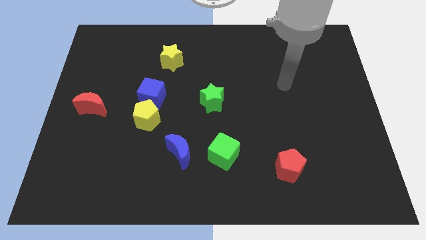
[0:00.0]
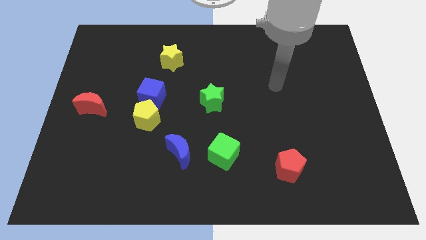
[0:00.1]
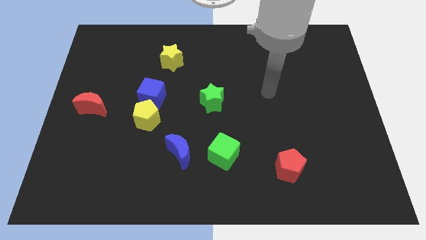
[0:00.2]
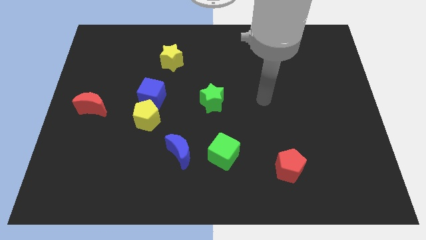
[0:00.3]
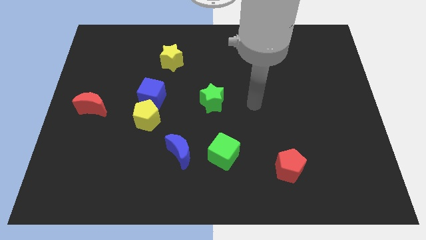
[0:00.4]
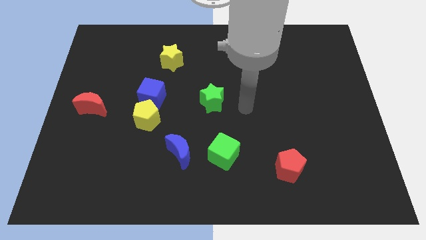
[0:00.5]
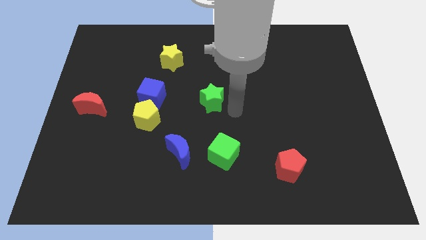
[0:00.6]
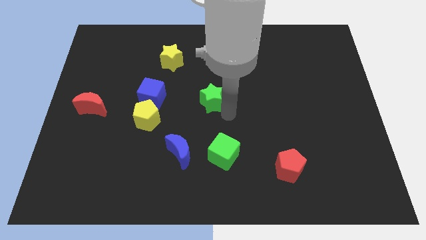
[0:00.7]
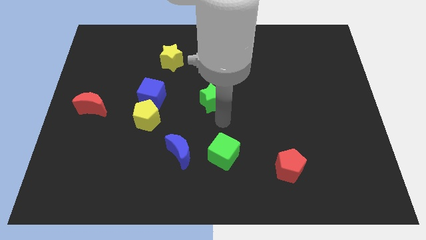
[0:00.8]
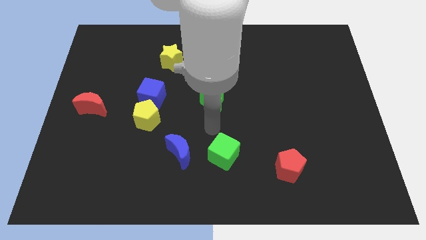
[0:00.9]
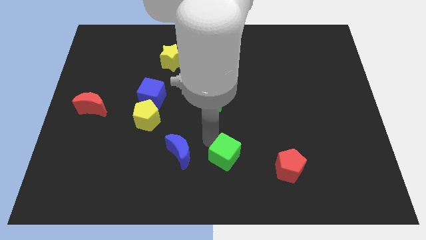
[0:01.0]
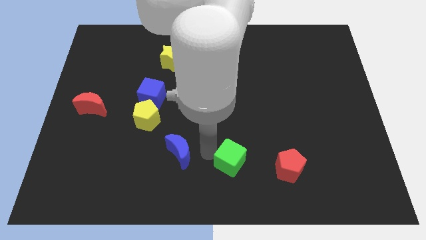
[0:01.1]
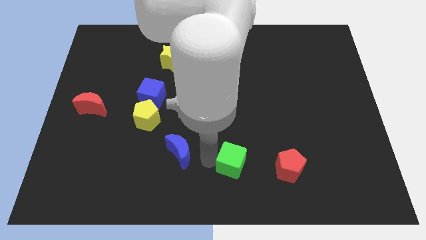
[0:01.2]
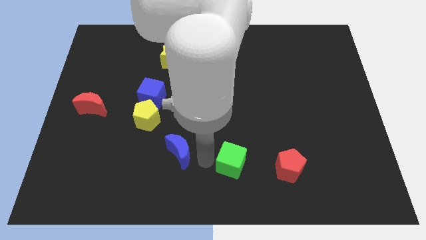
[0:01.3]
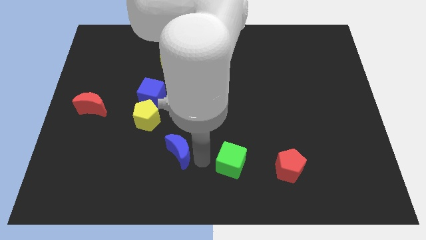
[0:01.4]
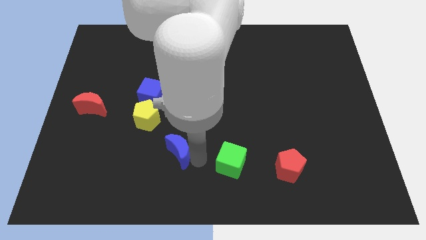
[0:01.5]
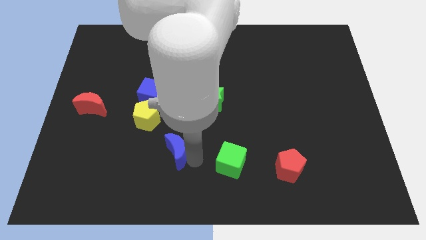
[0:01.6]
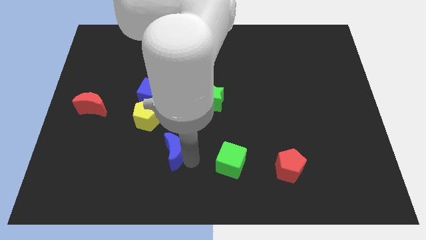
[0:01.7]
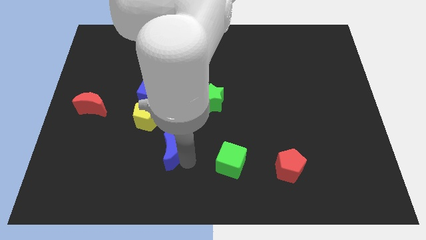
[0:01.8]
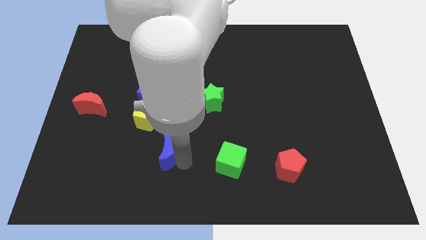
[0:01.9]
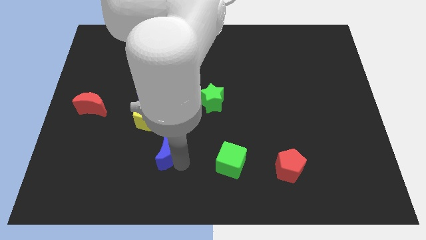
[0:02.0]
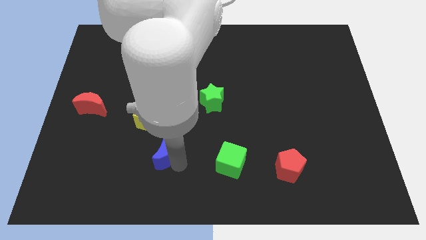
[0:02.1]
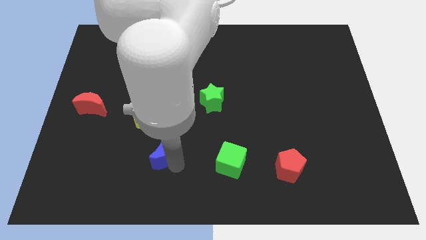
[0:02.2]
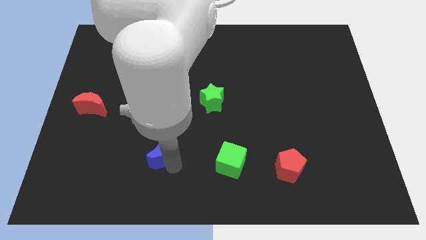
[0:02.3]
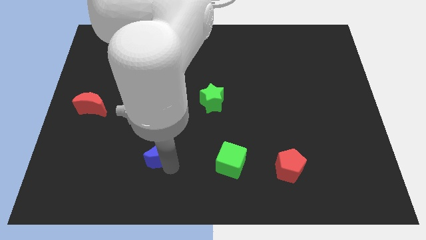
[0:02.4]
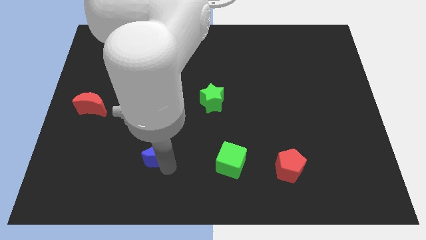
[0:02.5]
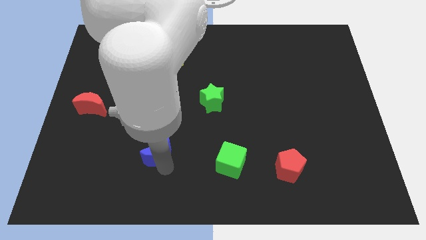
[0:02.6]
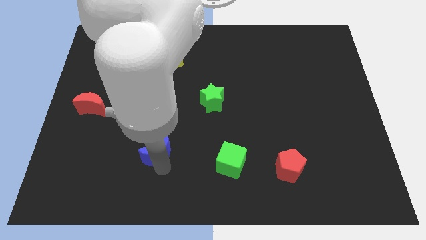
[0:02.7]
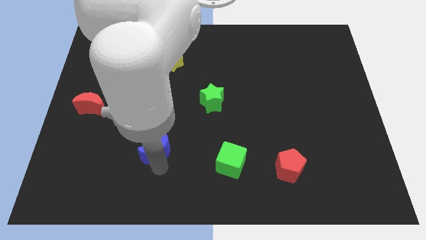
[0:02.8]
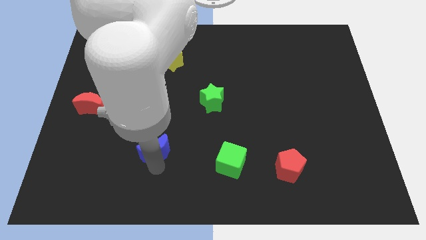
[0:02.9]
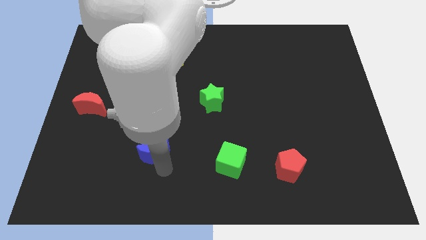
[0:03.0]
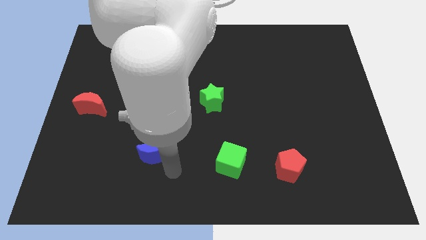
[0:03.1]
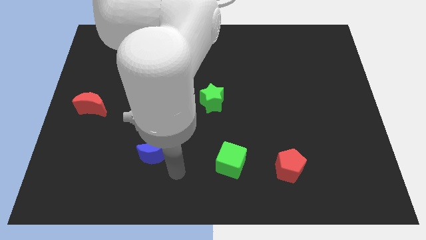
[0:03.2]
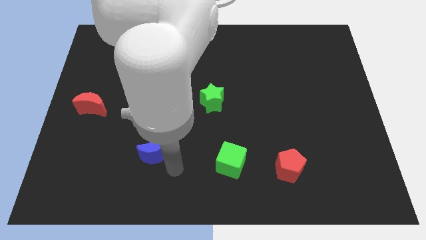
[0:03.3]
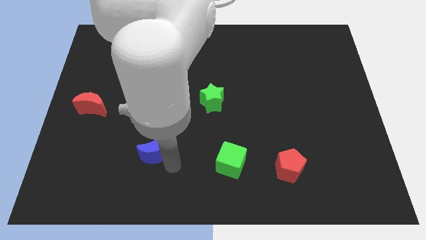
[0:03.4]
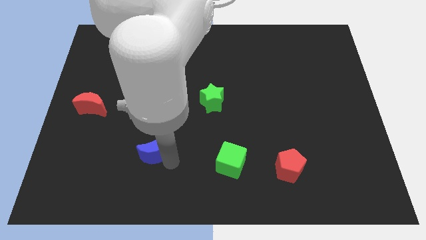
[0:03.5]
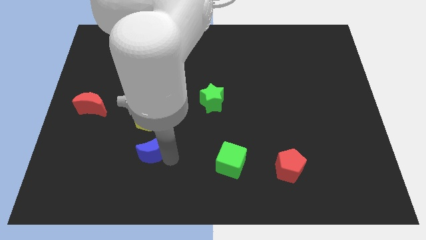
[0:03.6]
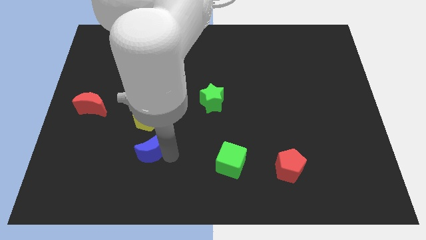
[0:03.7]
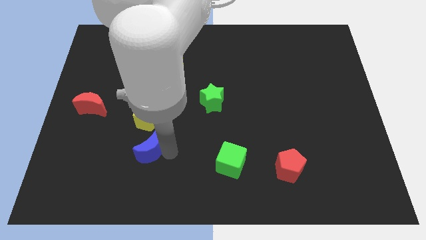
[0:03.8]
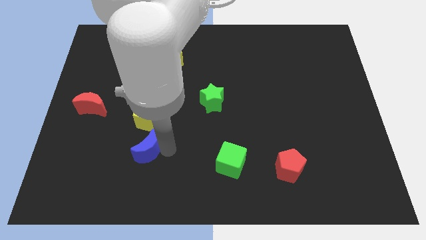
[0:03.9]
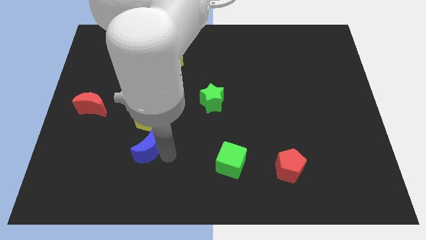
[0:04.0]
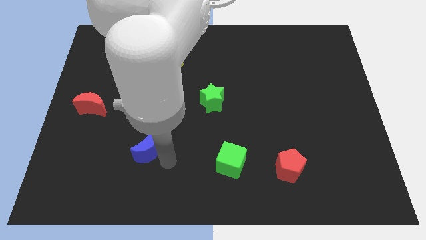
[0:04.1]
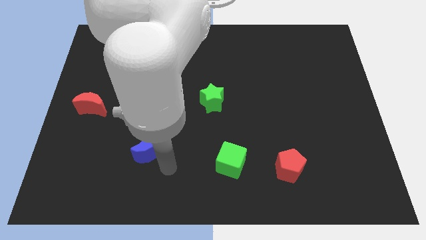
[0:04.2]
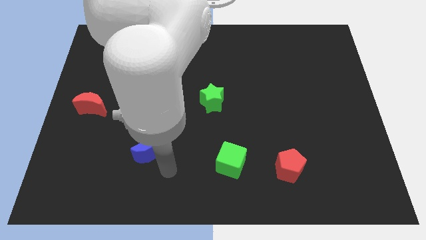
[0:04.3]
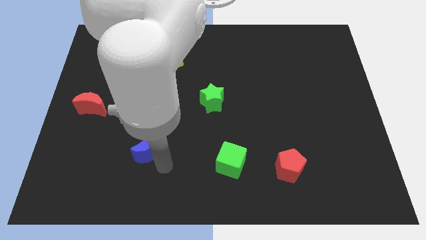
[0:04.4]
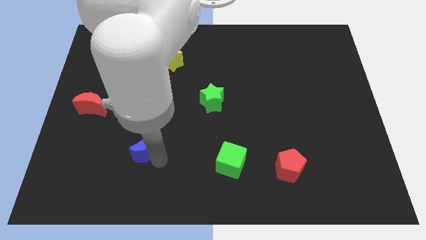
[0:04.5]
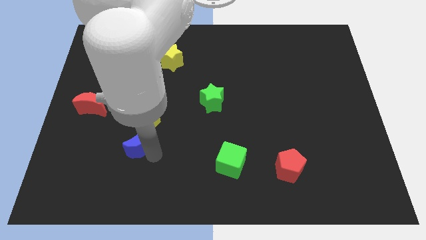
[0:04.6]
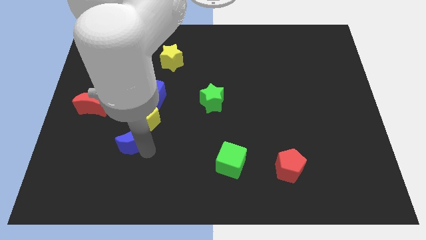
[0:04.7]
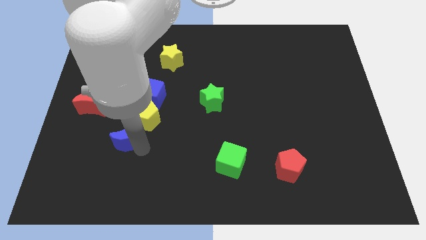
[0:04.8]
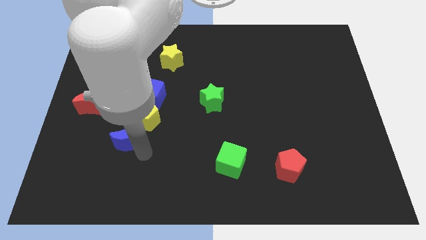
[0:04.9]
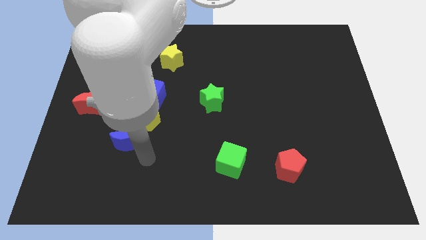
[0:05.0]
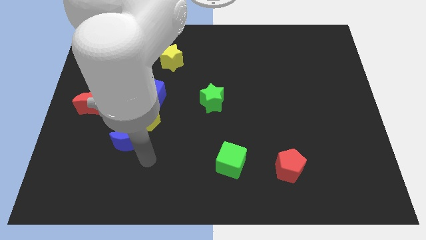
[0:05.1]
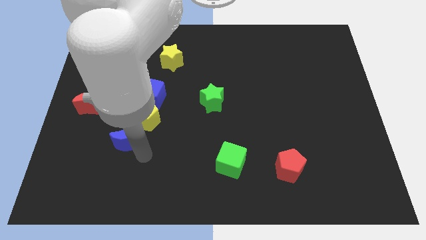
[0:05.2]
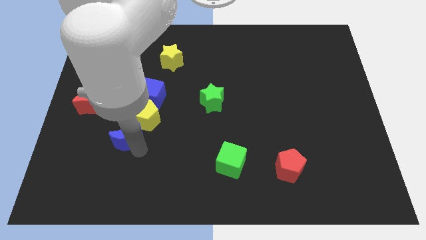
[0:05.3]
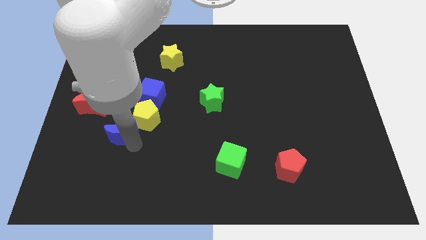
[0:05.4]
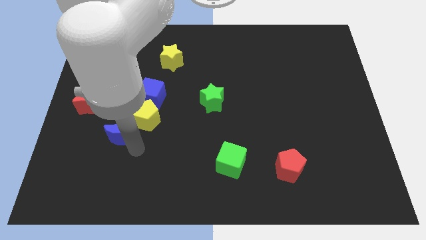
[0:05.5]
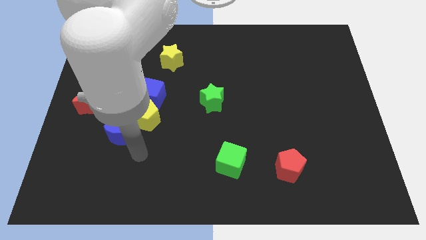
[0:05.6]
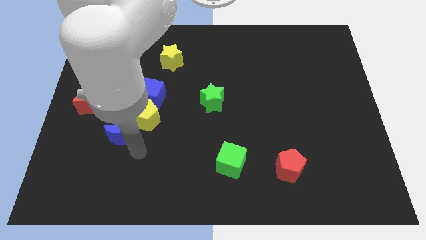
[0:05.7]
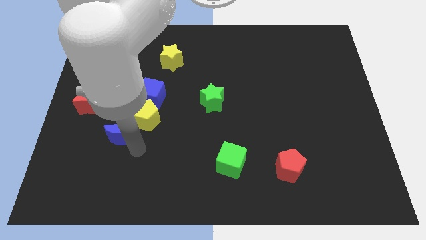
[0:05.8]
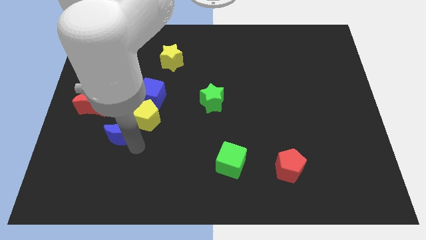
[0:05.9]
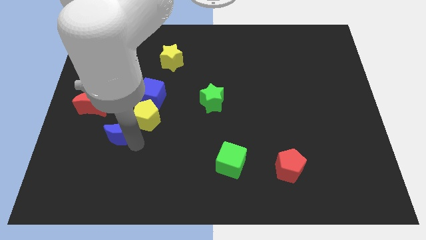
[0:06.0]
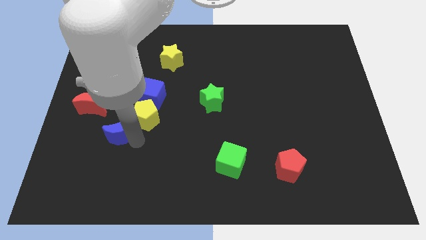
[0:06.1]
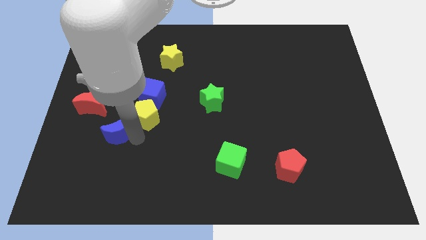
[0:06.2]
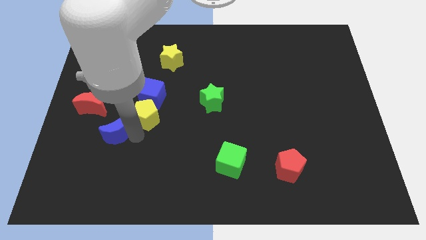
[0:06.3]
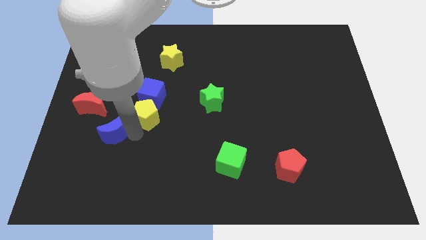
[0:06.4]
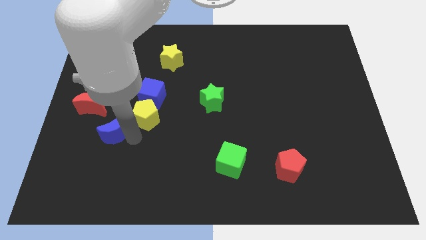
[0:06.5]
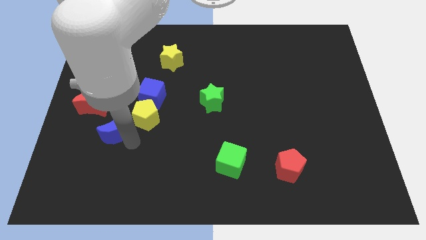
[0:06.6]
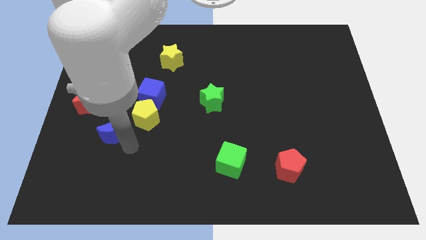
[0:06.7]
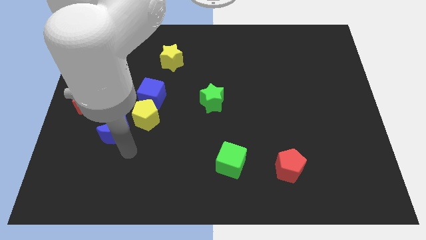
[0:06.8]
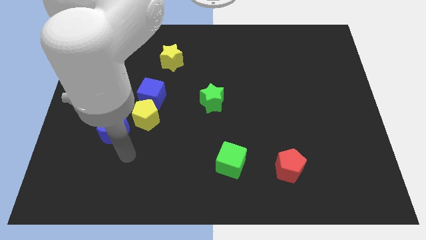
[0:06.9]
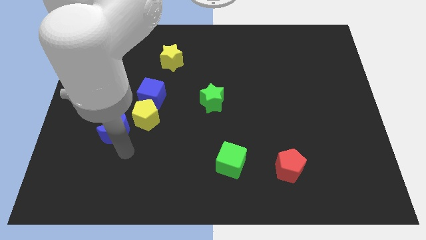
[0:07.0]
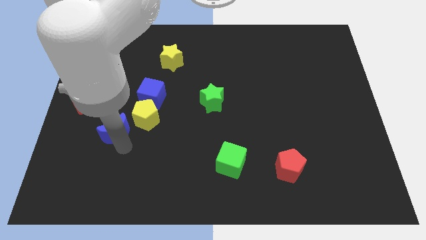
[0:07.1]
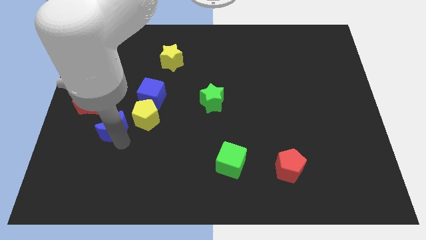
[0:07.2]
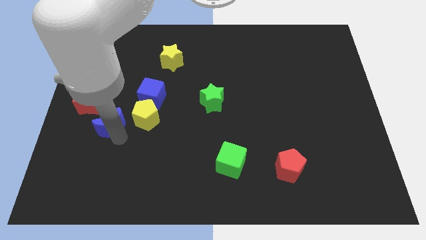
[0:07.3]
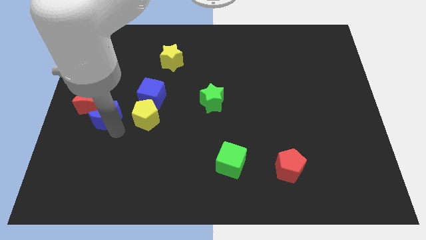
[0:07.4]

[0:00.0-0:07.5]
put the blue moon towards the red moon
